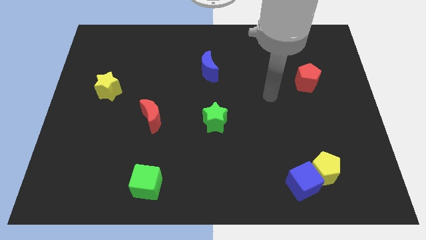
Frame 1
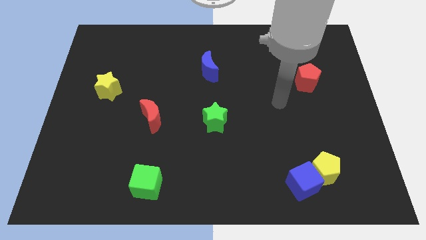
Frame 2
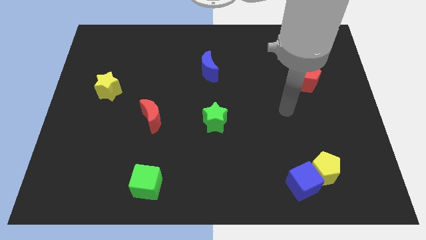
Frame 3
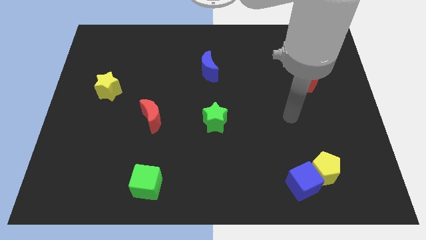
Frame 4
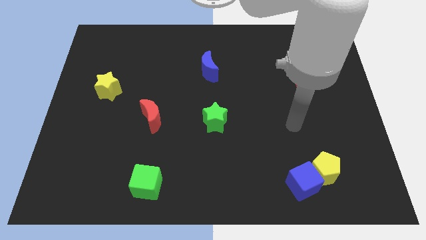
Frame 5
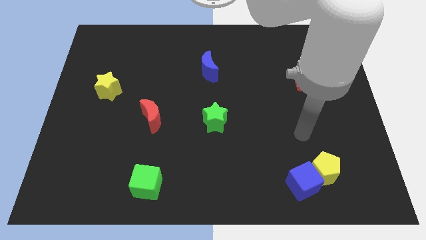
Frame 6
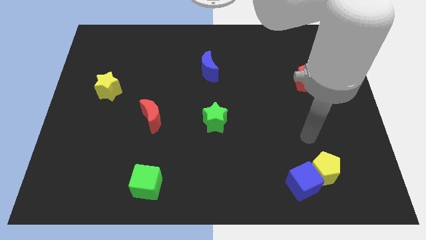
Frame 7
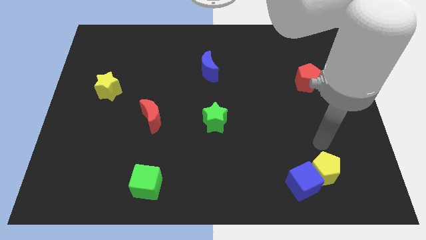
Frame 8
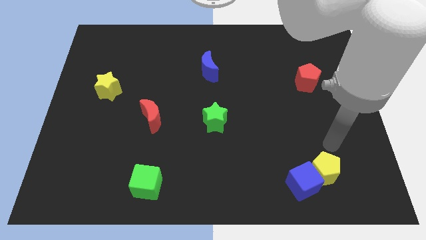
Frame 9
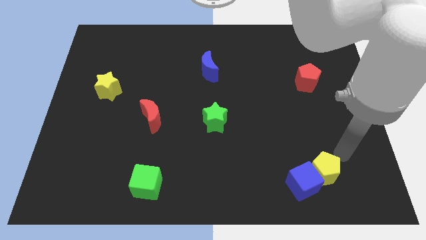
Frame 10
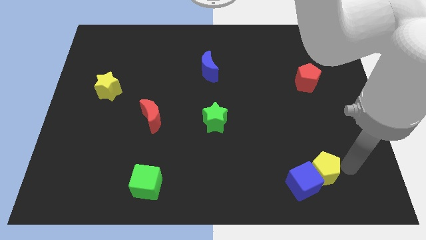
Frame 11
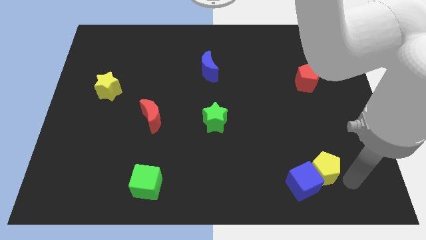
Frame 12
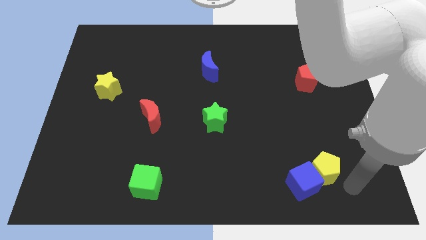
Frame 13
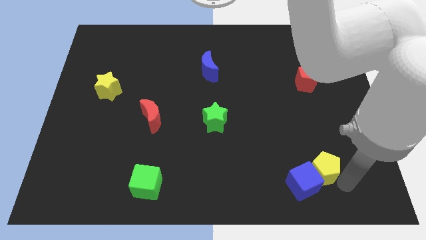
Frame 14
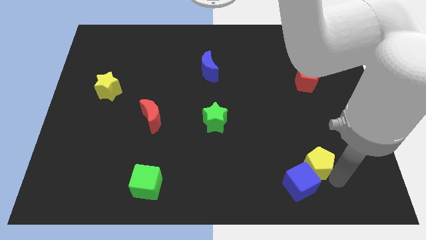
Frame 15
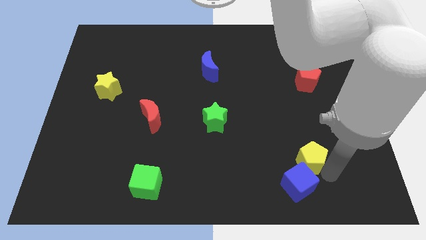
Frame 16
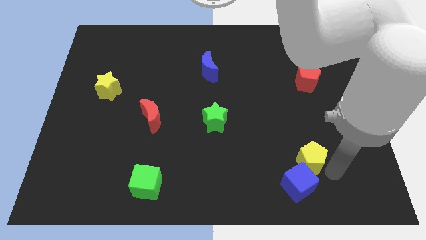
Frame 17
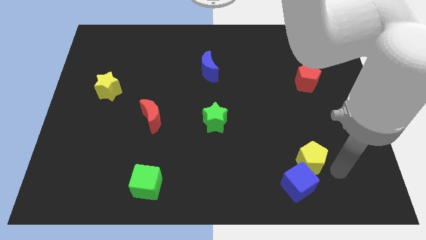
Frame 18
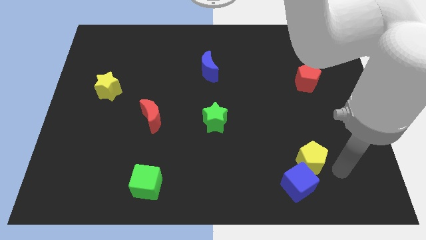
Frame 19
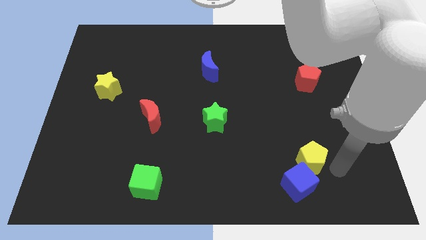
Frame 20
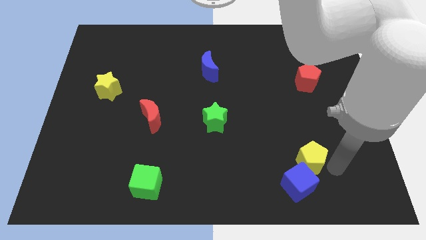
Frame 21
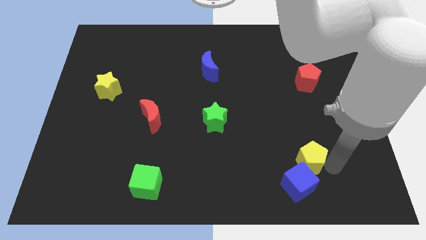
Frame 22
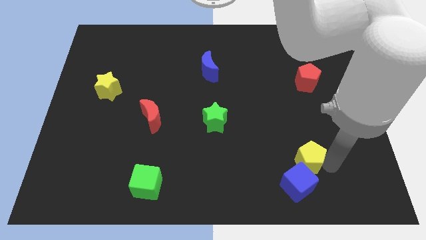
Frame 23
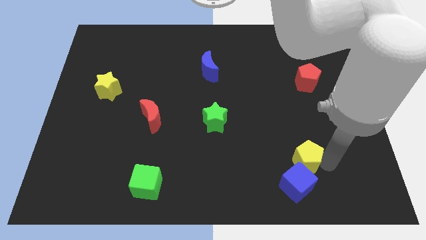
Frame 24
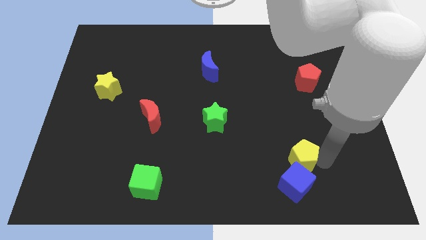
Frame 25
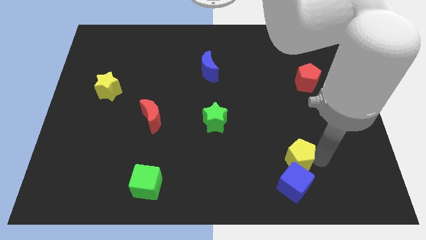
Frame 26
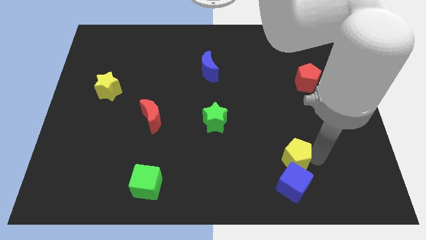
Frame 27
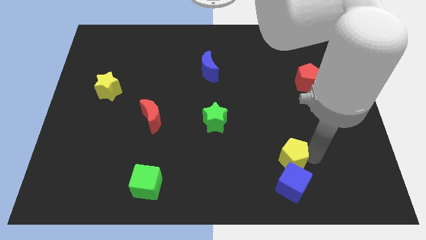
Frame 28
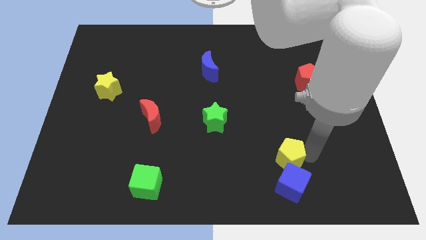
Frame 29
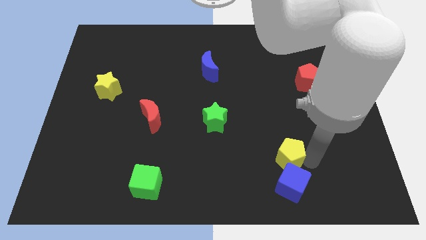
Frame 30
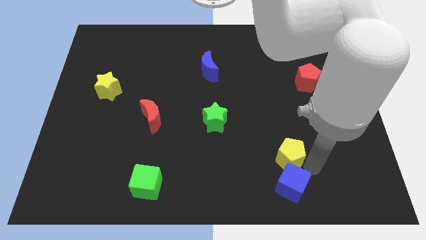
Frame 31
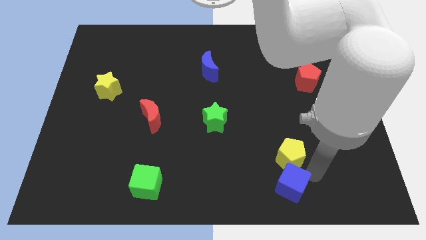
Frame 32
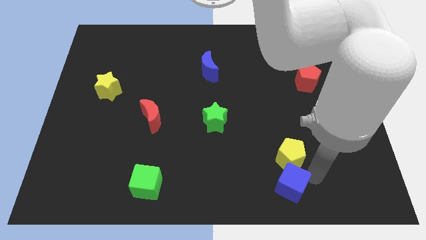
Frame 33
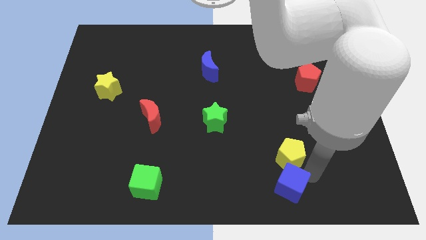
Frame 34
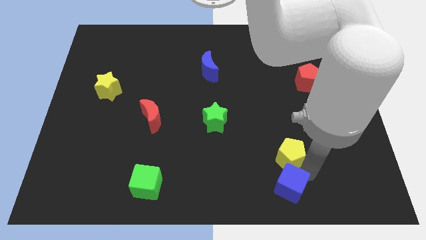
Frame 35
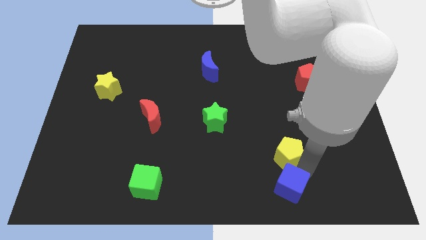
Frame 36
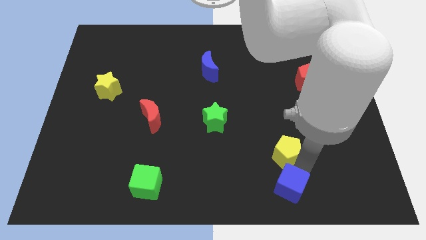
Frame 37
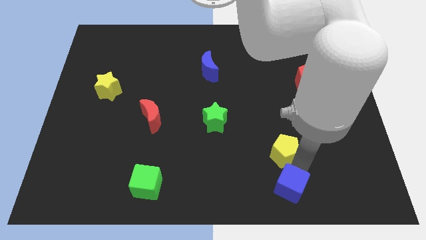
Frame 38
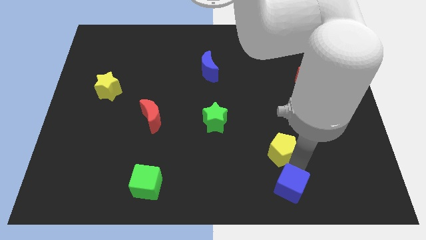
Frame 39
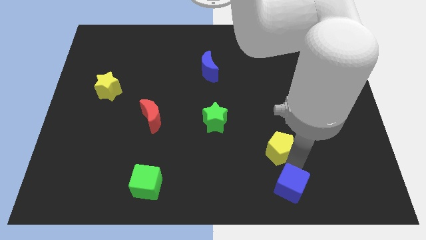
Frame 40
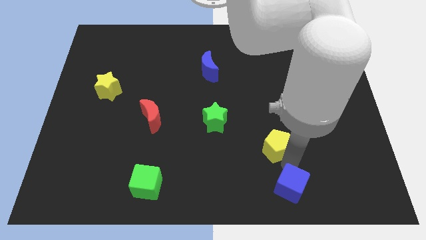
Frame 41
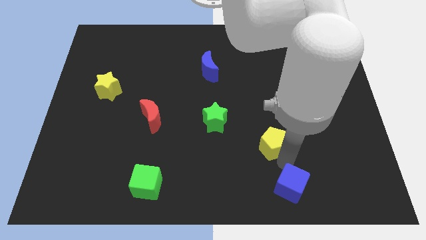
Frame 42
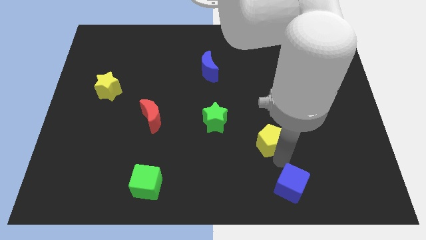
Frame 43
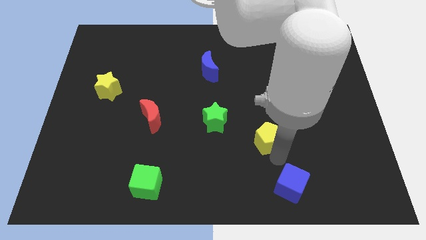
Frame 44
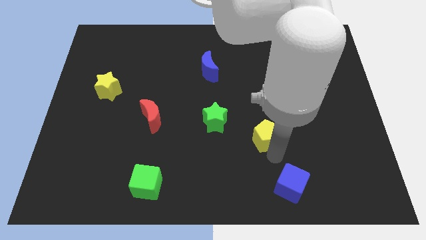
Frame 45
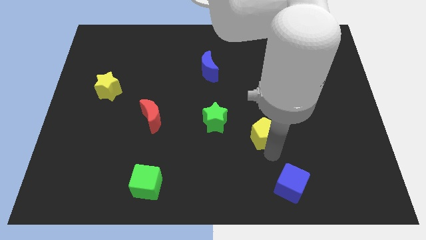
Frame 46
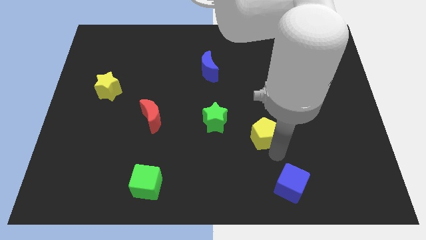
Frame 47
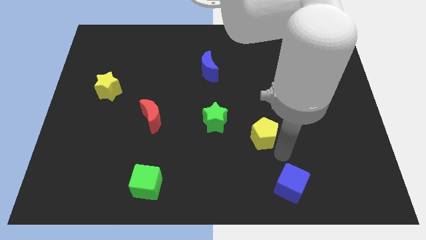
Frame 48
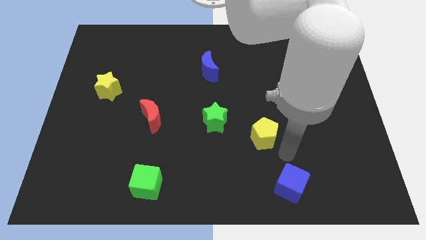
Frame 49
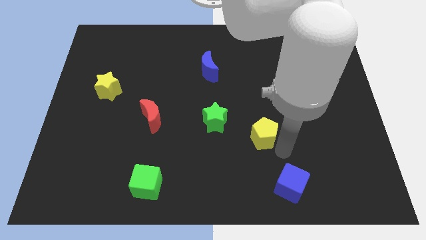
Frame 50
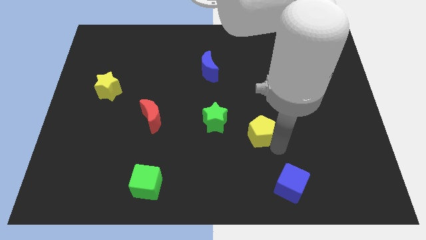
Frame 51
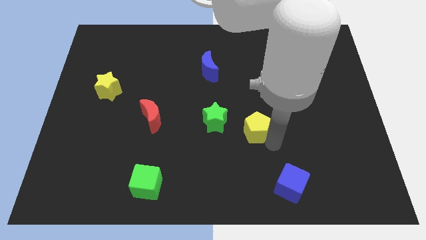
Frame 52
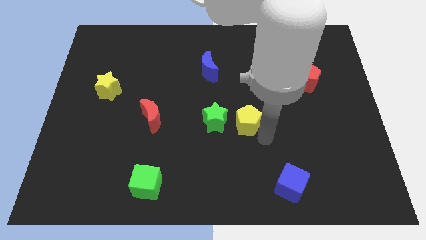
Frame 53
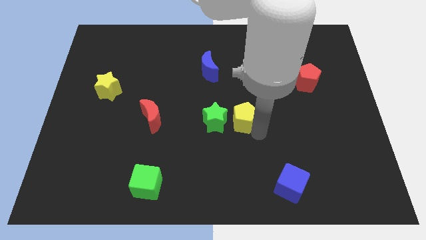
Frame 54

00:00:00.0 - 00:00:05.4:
slide the yellow pentagon diagonally upwards and to the left

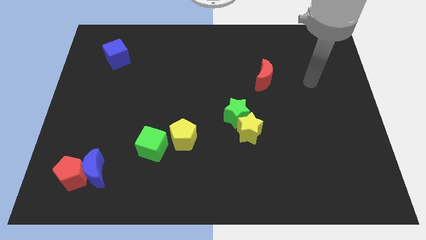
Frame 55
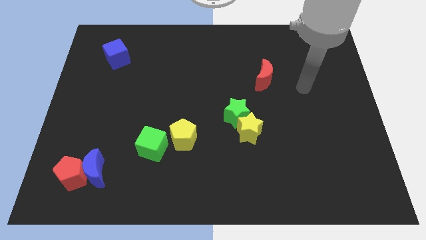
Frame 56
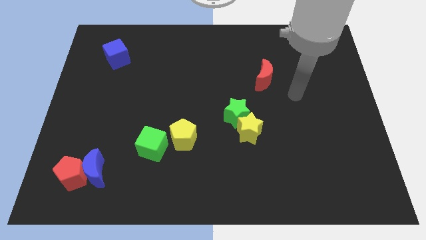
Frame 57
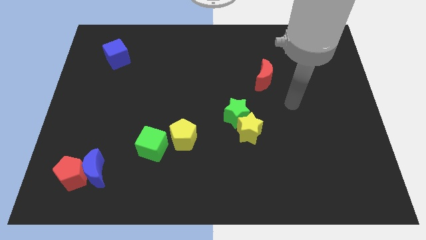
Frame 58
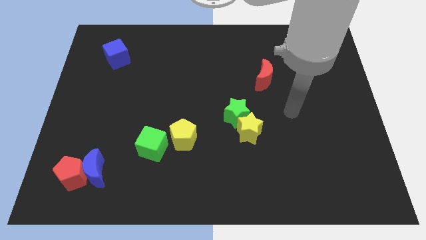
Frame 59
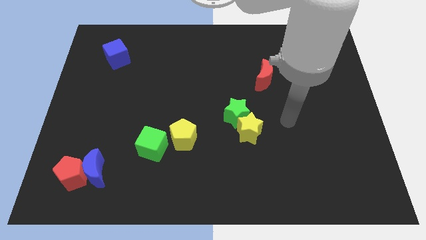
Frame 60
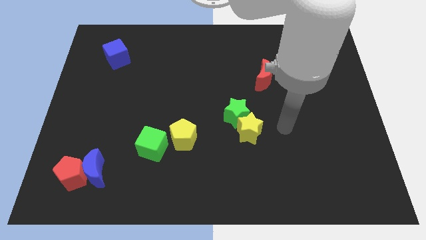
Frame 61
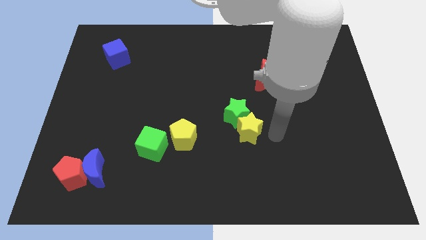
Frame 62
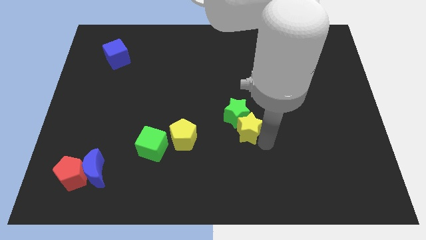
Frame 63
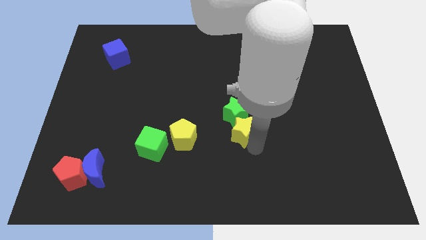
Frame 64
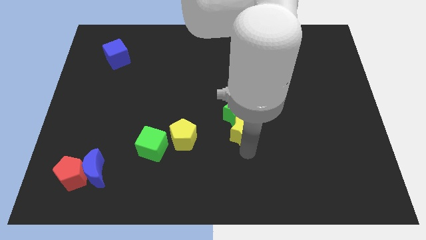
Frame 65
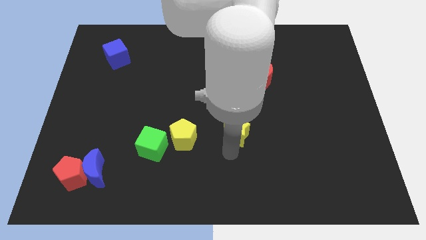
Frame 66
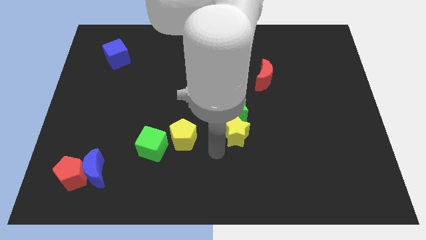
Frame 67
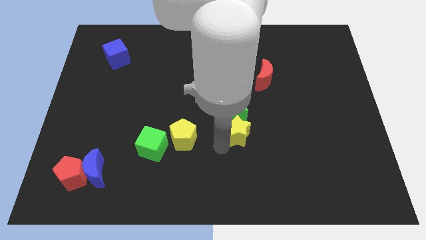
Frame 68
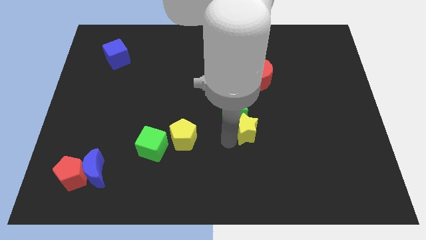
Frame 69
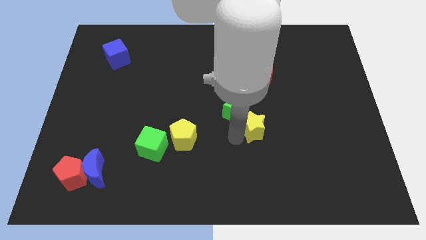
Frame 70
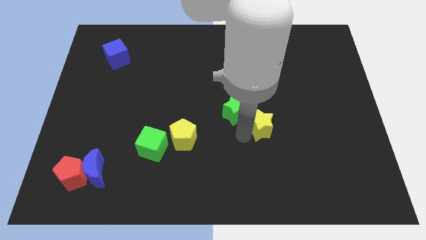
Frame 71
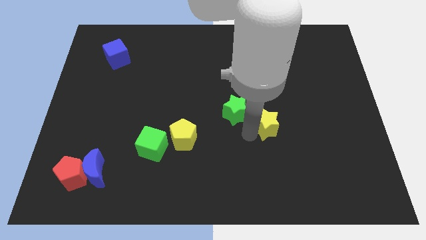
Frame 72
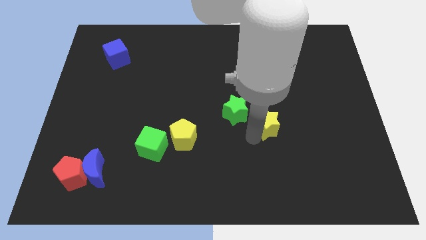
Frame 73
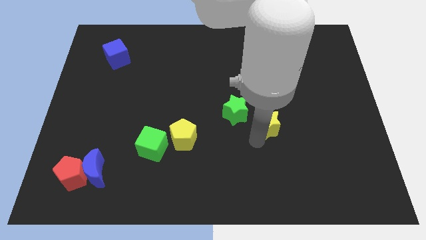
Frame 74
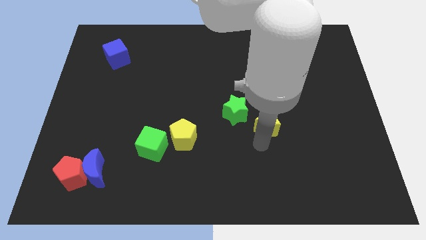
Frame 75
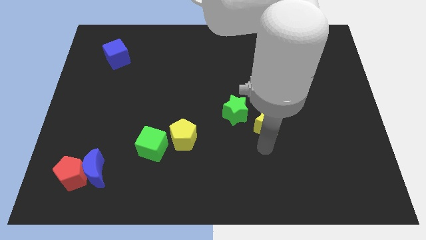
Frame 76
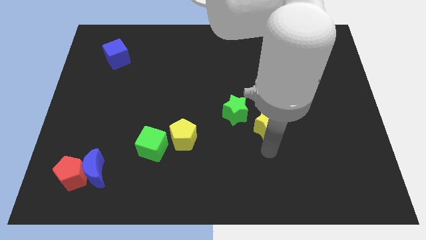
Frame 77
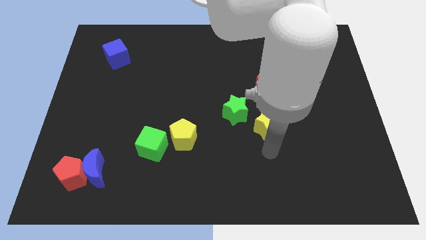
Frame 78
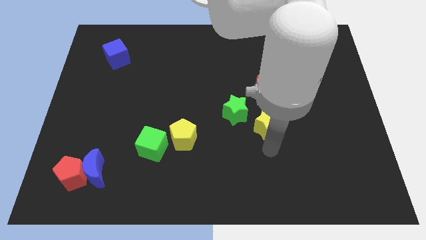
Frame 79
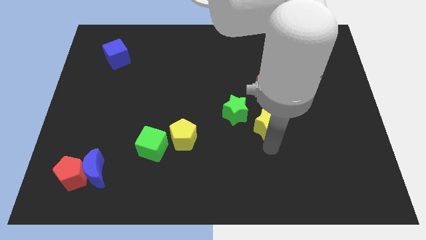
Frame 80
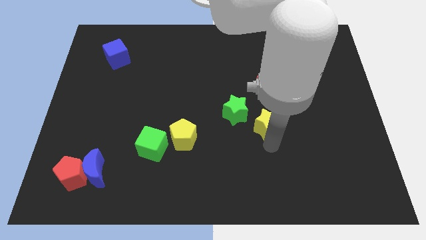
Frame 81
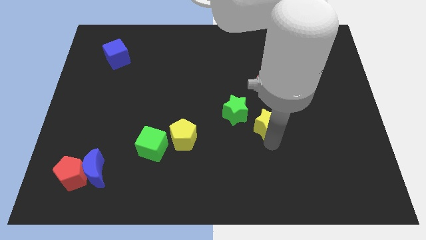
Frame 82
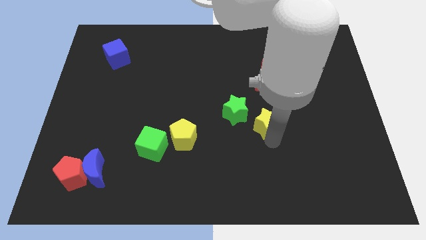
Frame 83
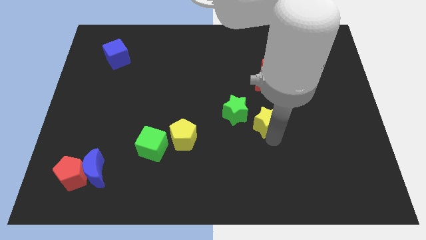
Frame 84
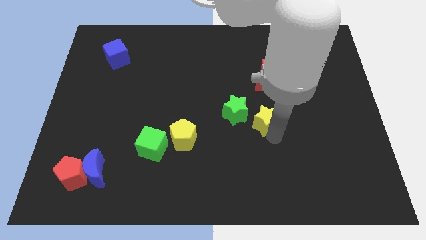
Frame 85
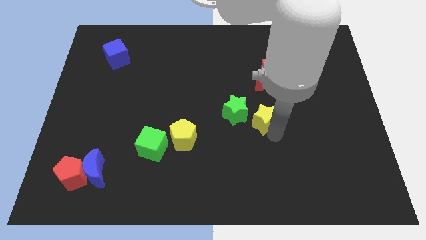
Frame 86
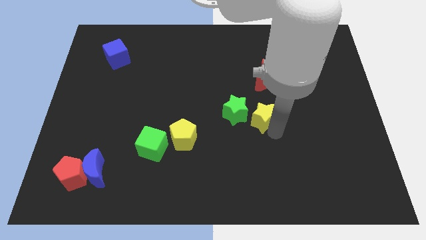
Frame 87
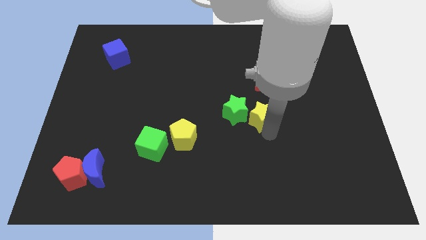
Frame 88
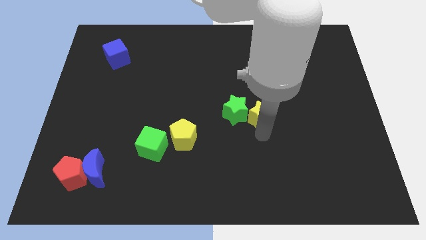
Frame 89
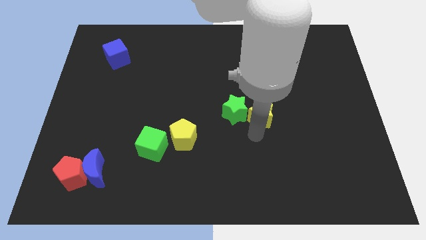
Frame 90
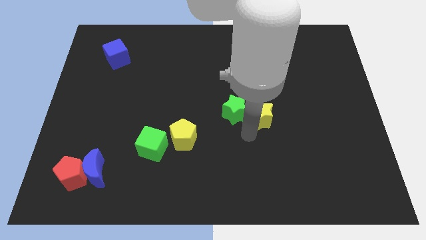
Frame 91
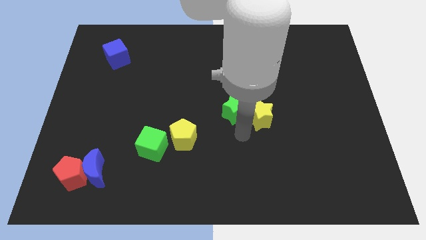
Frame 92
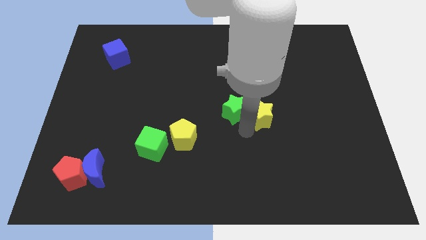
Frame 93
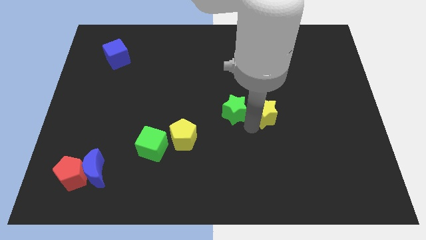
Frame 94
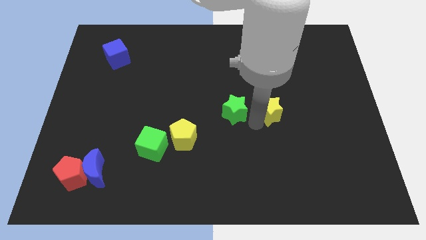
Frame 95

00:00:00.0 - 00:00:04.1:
slide the yellow star diagonally upwards and right a bit
